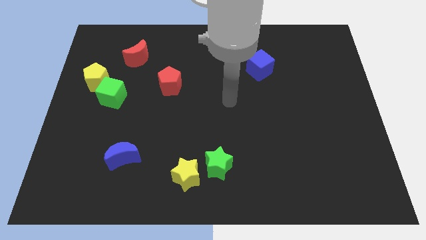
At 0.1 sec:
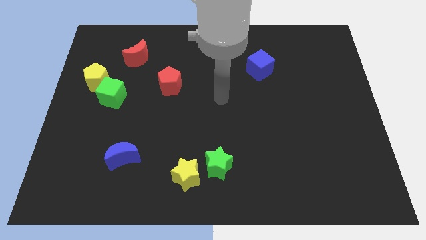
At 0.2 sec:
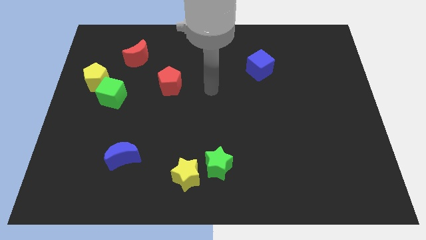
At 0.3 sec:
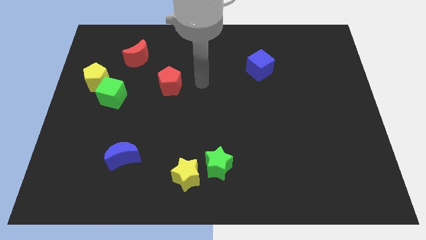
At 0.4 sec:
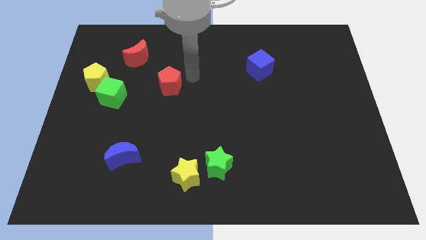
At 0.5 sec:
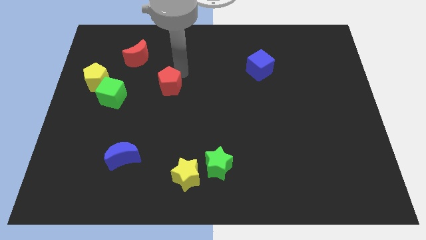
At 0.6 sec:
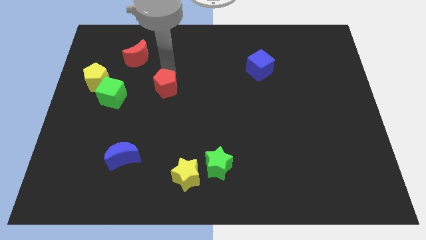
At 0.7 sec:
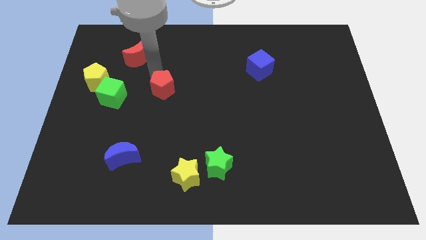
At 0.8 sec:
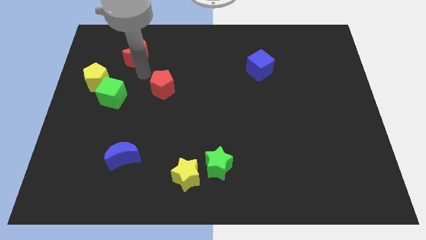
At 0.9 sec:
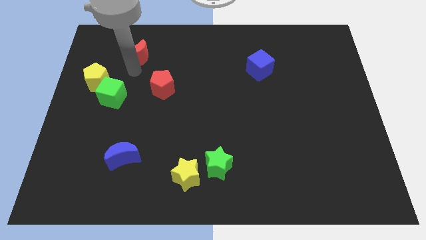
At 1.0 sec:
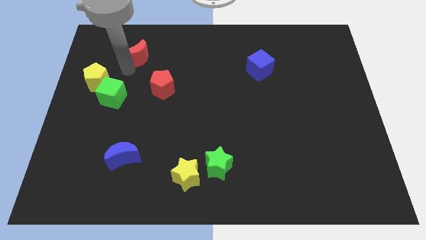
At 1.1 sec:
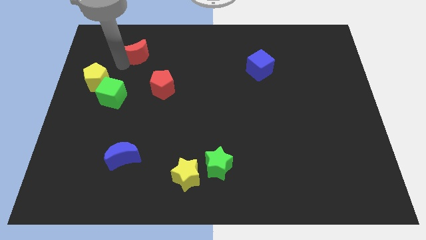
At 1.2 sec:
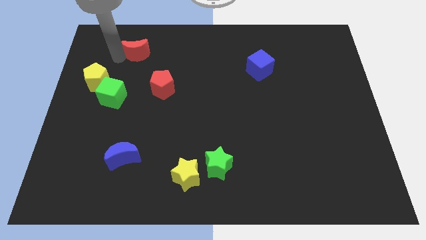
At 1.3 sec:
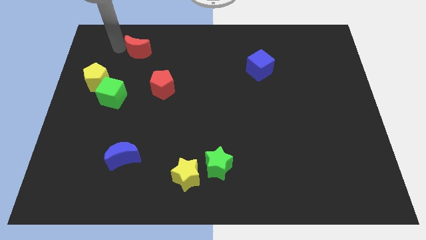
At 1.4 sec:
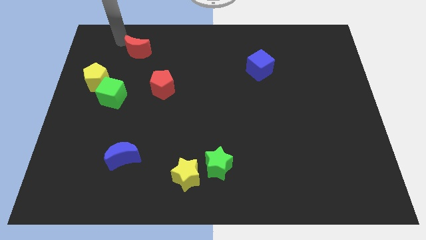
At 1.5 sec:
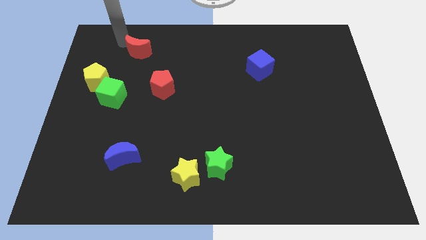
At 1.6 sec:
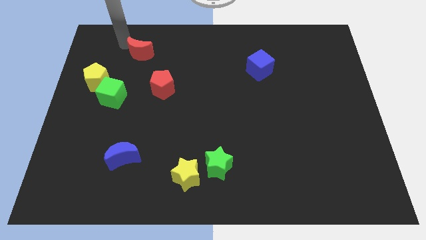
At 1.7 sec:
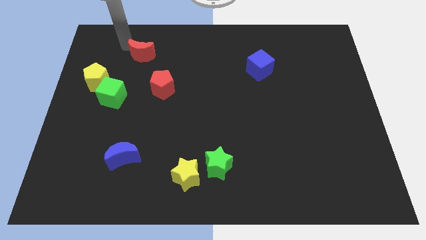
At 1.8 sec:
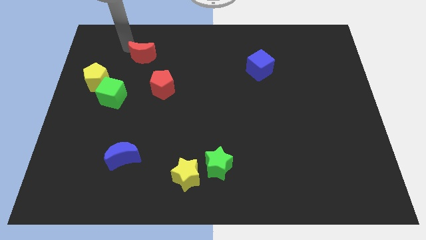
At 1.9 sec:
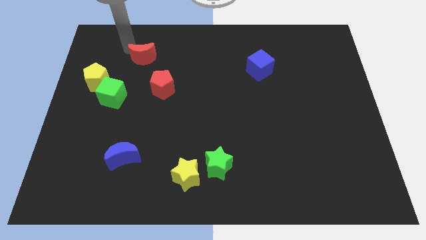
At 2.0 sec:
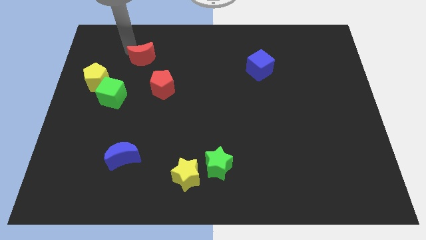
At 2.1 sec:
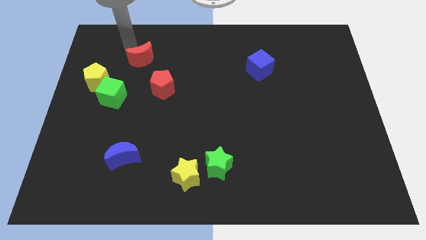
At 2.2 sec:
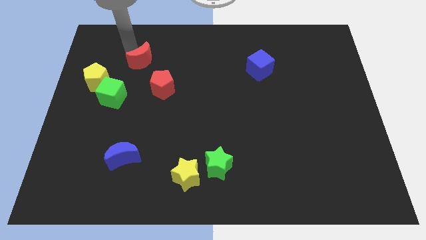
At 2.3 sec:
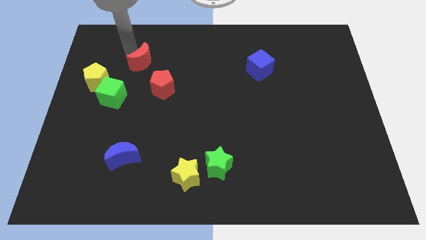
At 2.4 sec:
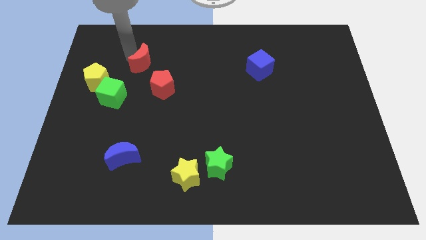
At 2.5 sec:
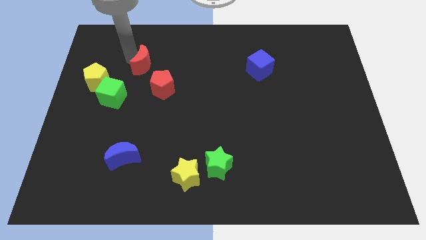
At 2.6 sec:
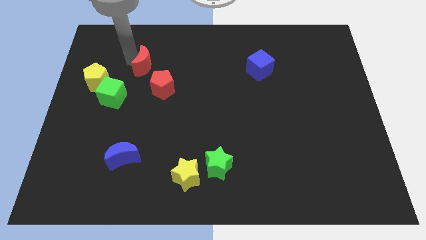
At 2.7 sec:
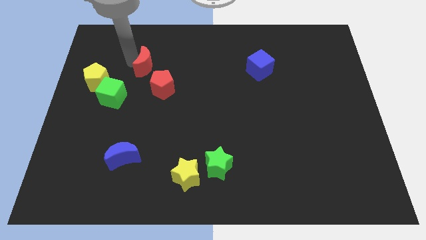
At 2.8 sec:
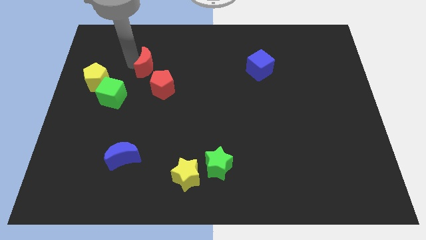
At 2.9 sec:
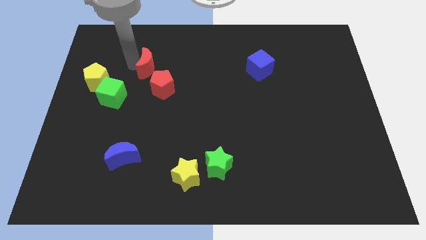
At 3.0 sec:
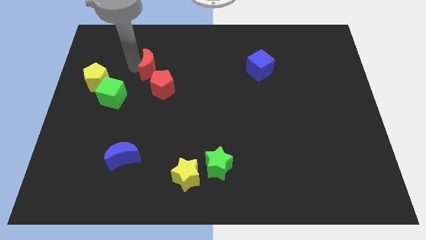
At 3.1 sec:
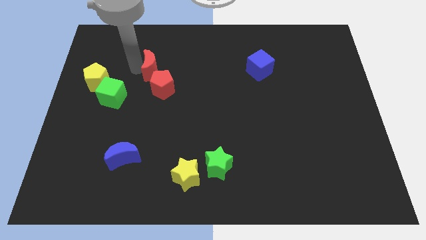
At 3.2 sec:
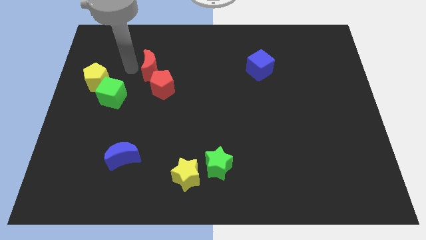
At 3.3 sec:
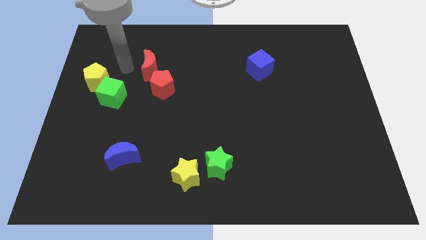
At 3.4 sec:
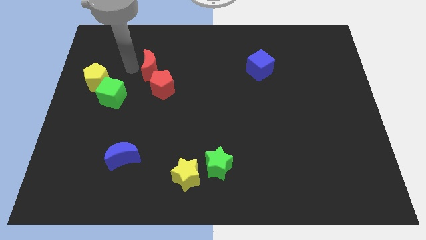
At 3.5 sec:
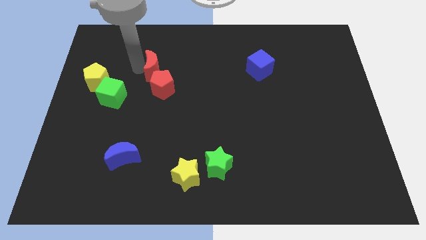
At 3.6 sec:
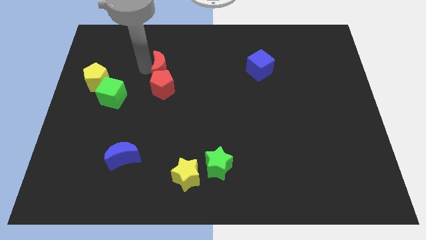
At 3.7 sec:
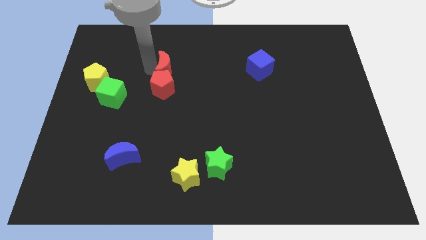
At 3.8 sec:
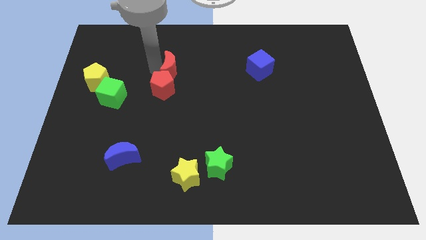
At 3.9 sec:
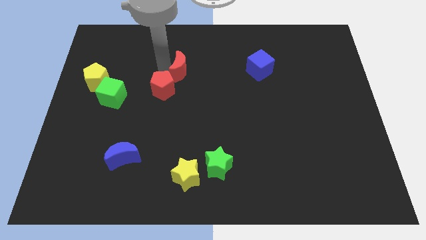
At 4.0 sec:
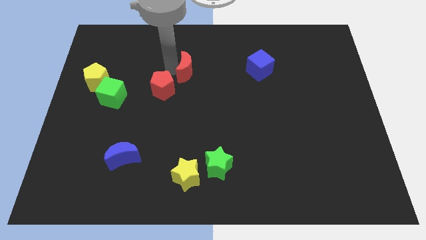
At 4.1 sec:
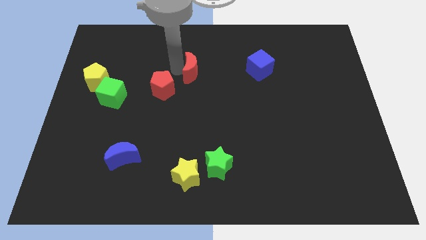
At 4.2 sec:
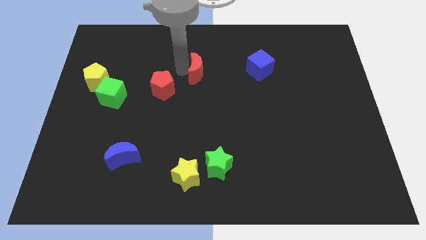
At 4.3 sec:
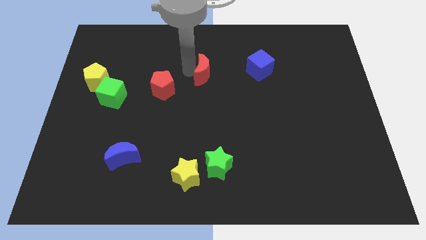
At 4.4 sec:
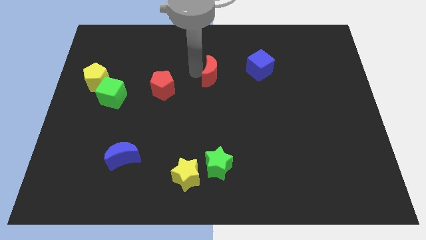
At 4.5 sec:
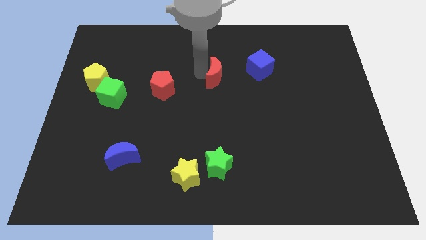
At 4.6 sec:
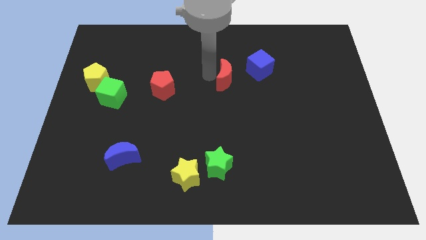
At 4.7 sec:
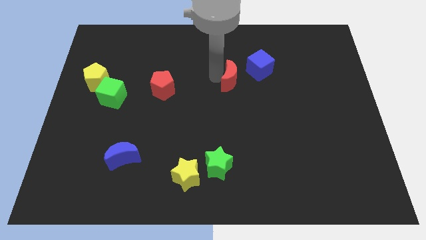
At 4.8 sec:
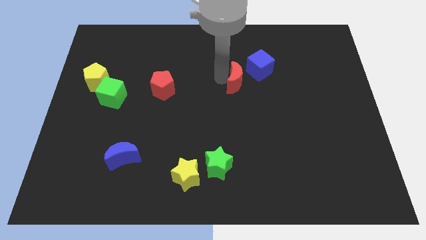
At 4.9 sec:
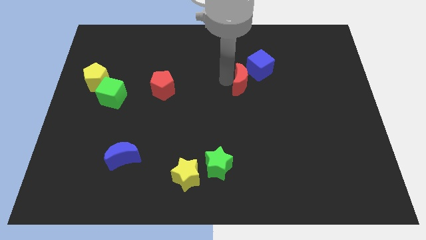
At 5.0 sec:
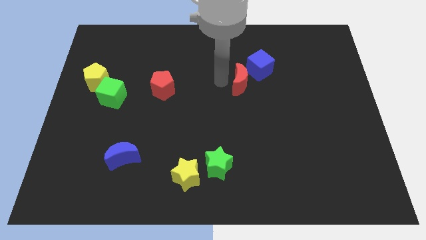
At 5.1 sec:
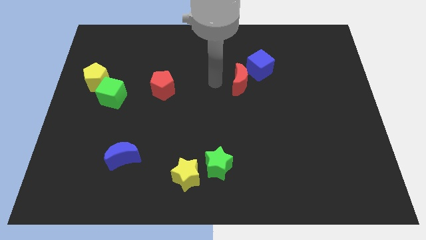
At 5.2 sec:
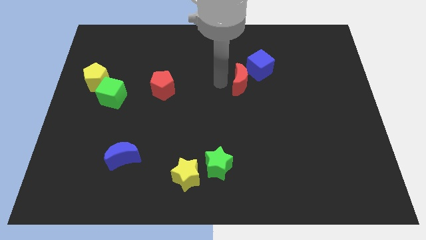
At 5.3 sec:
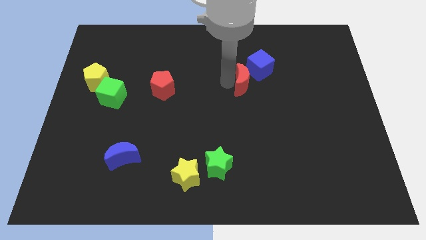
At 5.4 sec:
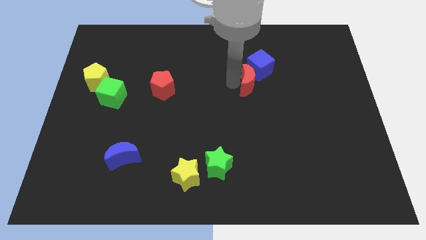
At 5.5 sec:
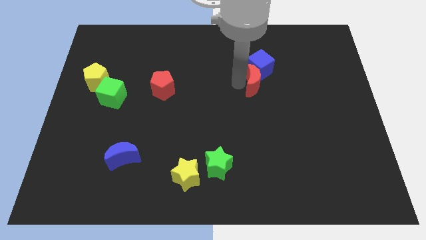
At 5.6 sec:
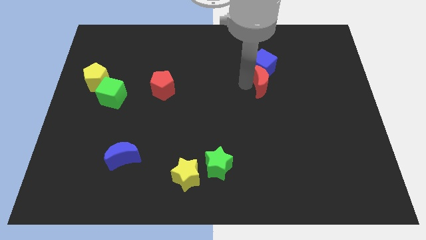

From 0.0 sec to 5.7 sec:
move the red moon diagonally down and to the right of the blue cube

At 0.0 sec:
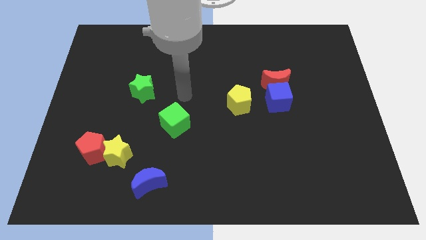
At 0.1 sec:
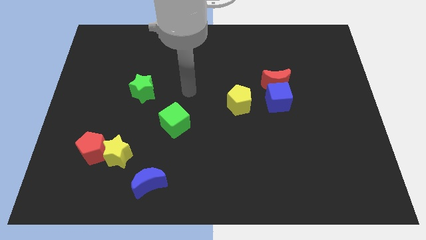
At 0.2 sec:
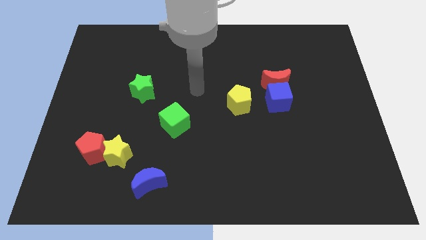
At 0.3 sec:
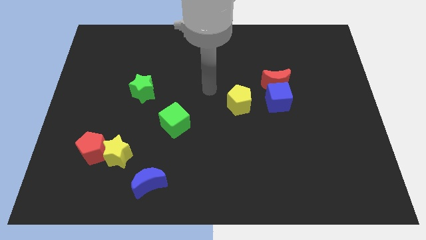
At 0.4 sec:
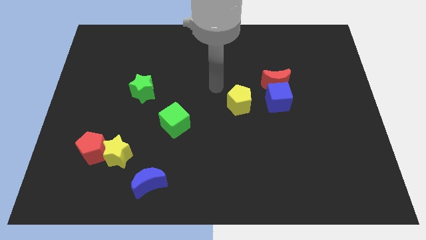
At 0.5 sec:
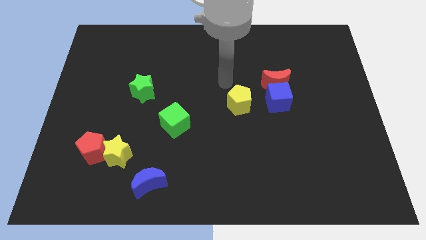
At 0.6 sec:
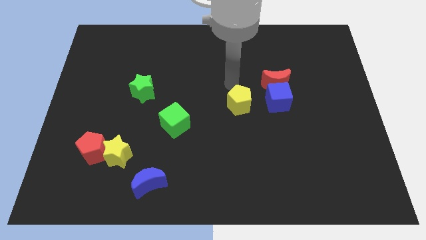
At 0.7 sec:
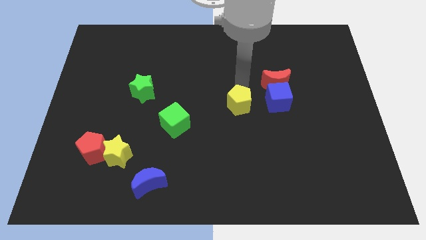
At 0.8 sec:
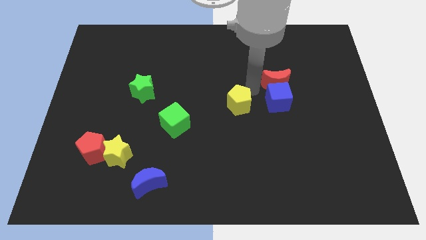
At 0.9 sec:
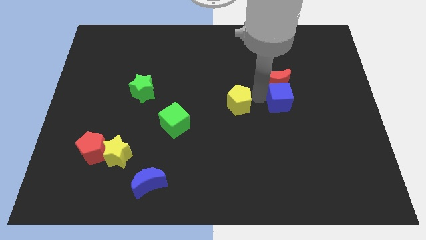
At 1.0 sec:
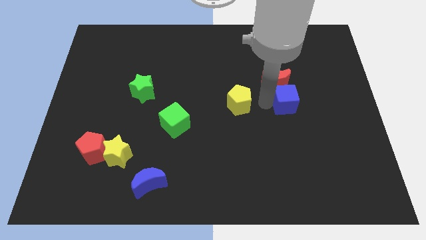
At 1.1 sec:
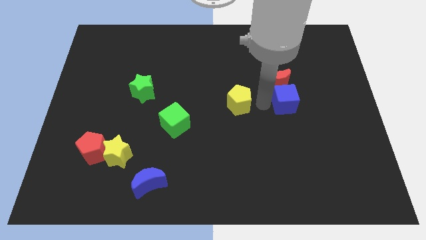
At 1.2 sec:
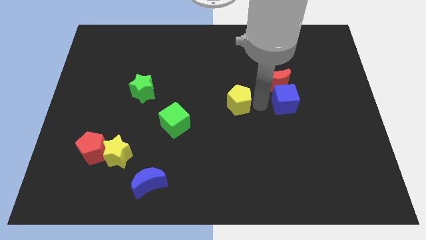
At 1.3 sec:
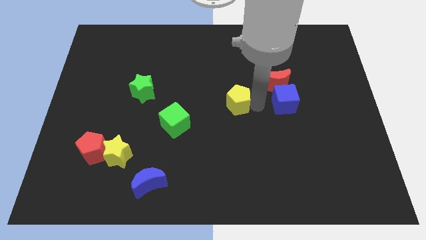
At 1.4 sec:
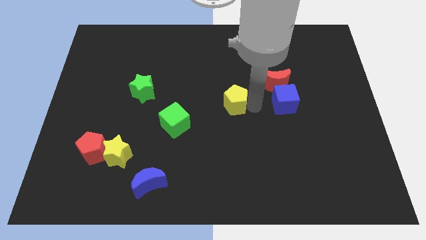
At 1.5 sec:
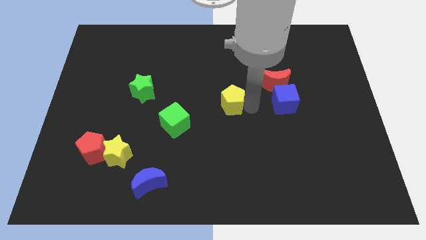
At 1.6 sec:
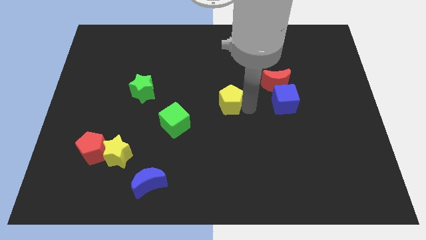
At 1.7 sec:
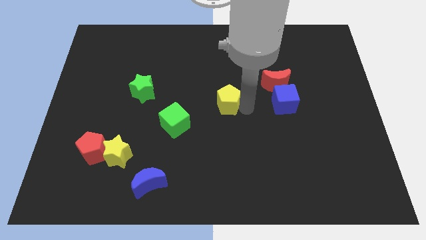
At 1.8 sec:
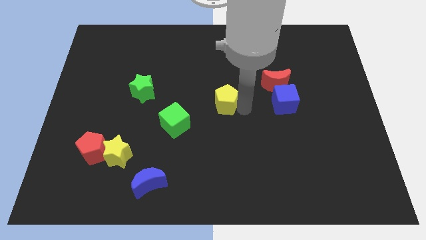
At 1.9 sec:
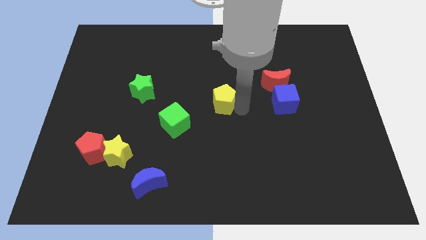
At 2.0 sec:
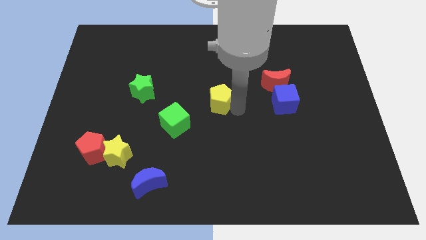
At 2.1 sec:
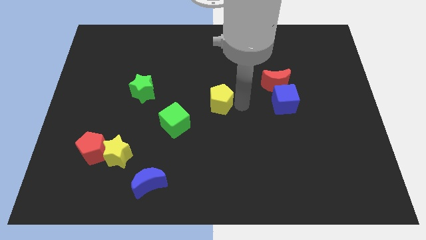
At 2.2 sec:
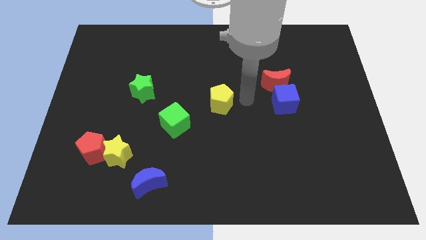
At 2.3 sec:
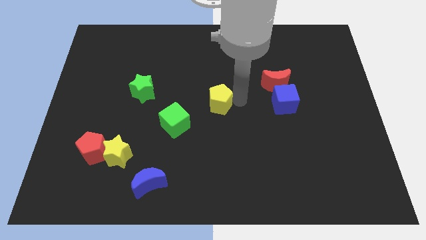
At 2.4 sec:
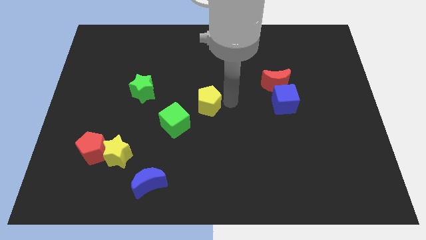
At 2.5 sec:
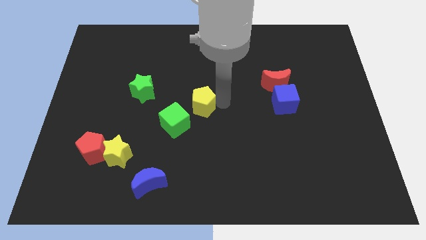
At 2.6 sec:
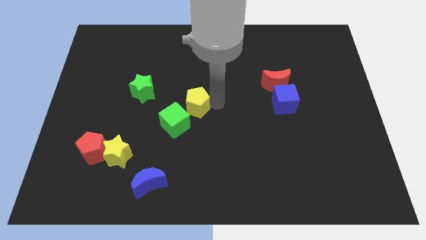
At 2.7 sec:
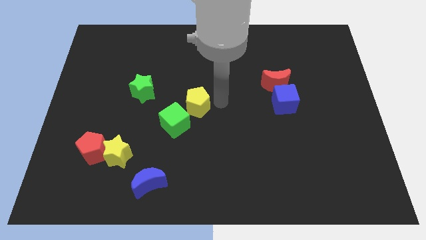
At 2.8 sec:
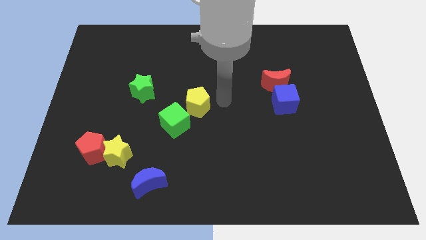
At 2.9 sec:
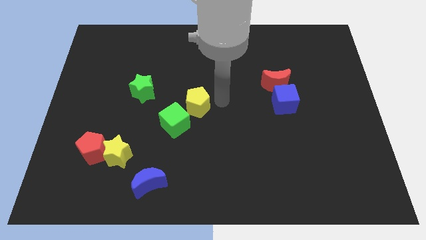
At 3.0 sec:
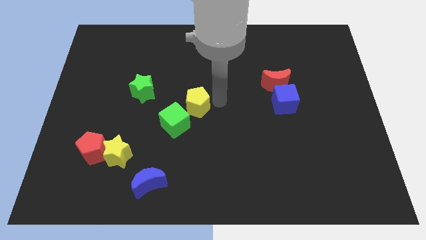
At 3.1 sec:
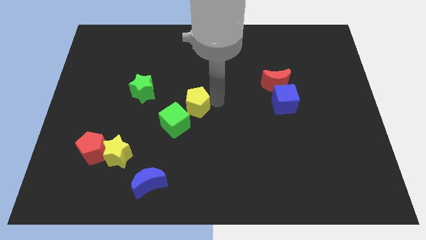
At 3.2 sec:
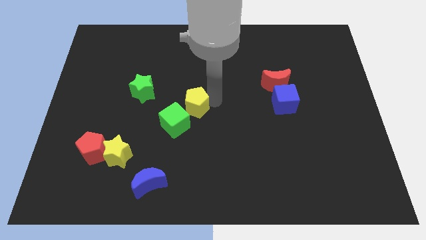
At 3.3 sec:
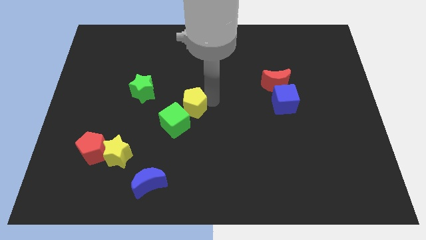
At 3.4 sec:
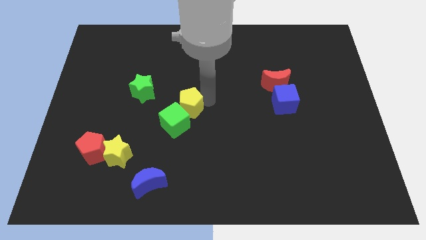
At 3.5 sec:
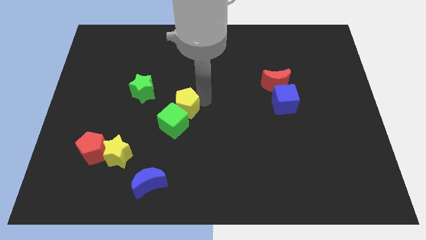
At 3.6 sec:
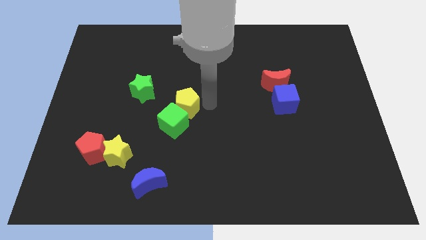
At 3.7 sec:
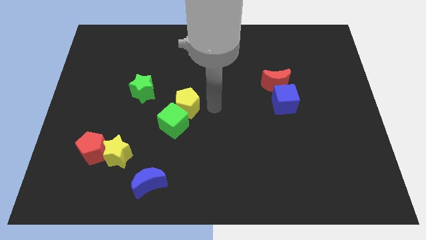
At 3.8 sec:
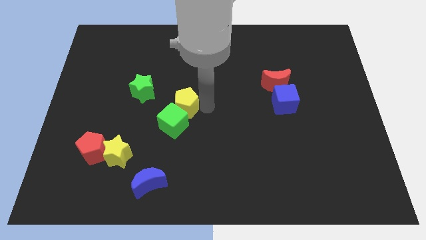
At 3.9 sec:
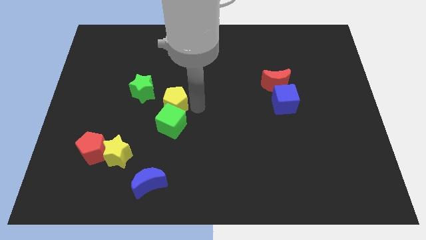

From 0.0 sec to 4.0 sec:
push the yellow pentagon to the top left side of the green cube
